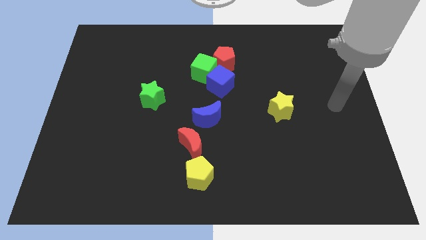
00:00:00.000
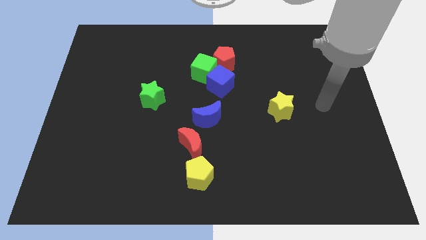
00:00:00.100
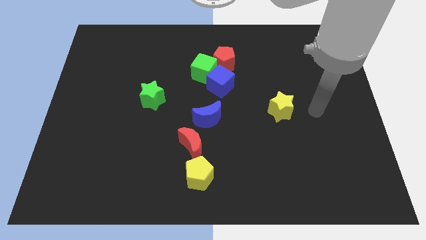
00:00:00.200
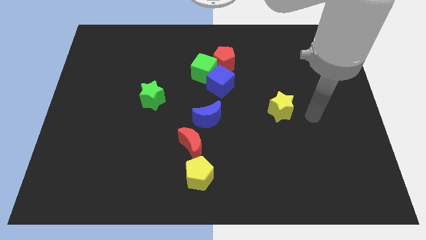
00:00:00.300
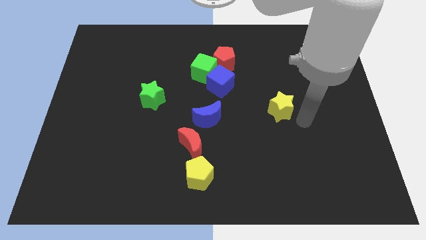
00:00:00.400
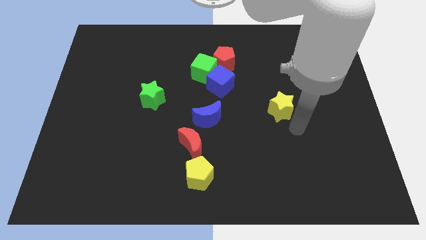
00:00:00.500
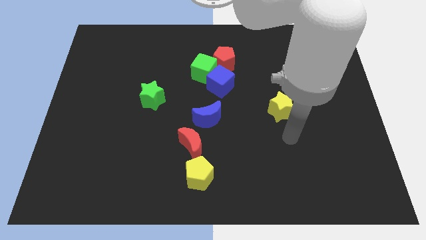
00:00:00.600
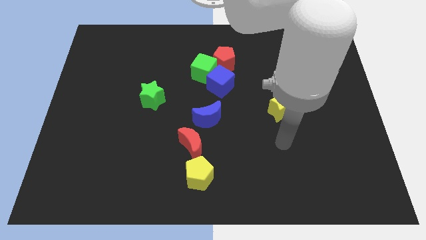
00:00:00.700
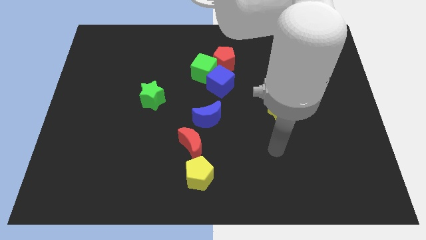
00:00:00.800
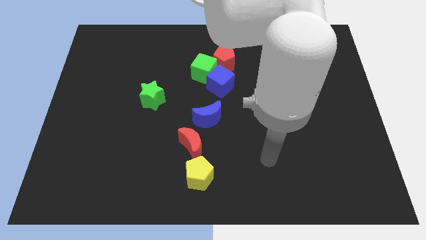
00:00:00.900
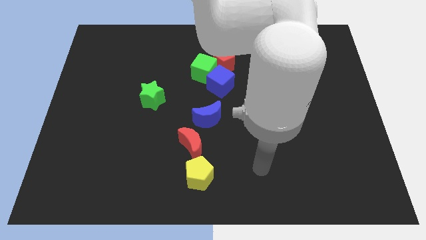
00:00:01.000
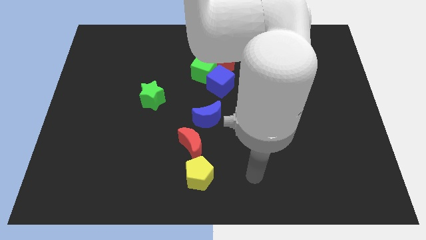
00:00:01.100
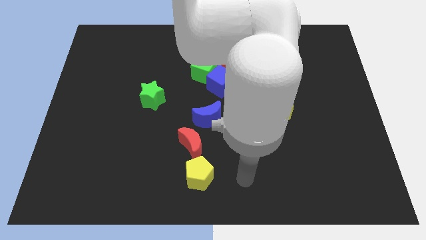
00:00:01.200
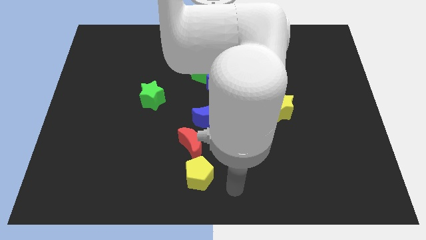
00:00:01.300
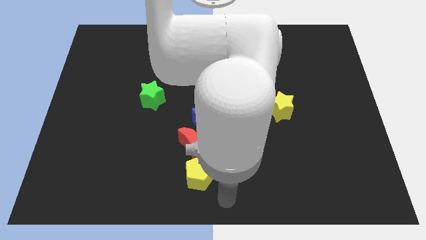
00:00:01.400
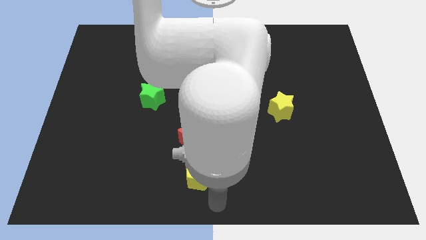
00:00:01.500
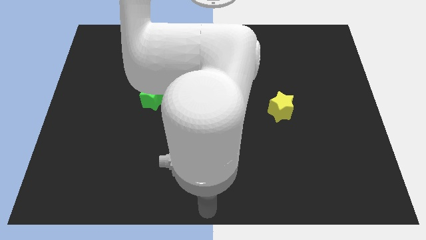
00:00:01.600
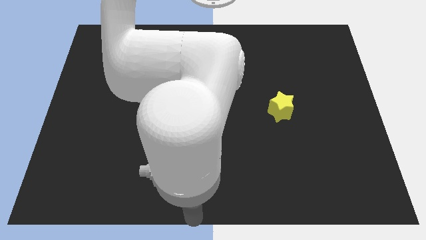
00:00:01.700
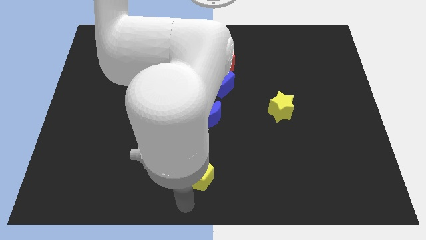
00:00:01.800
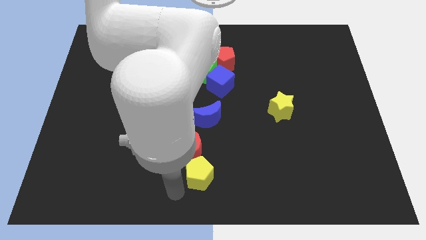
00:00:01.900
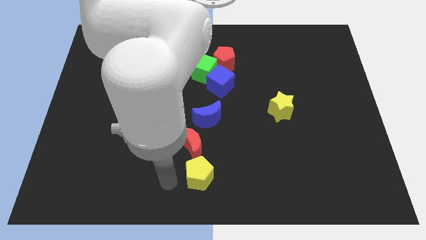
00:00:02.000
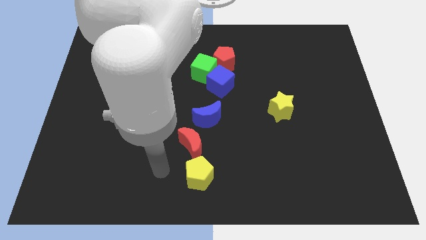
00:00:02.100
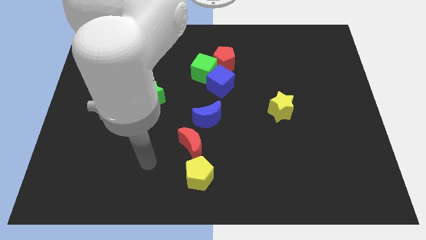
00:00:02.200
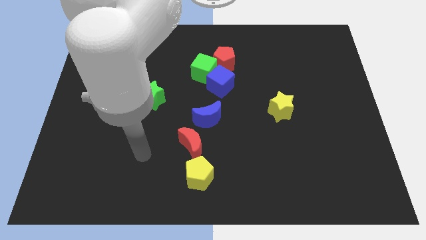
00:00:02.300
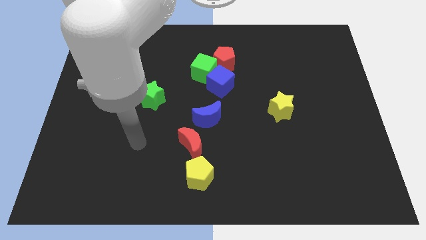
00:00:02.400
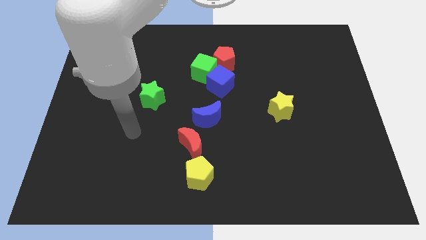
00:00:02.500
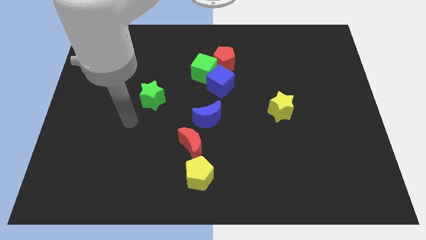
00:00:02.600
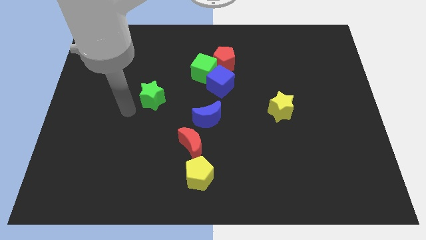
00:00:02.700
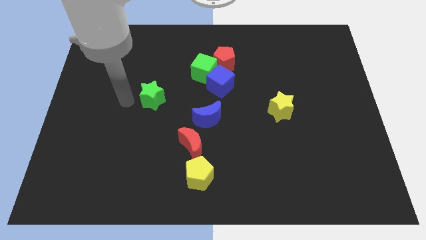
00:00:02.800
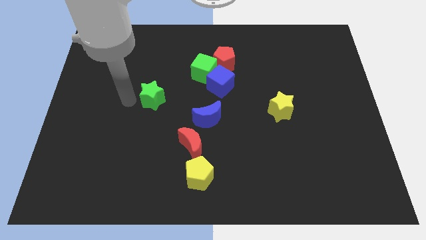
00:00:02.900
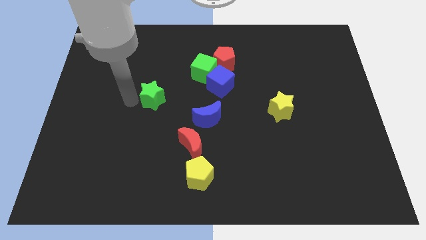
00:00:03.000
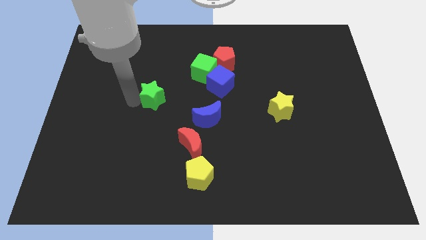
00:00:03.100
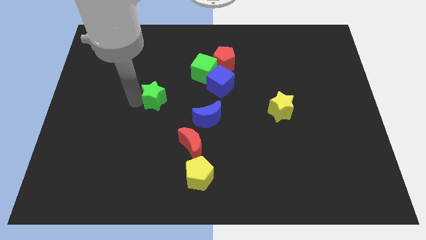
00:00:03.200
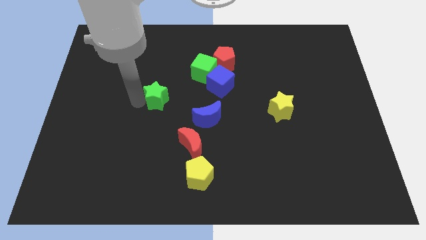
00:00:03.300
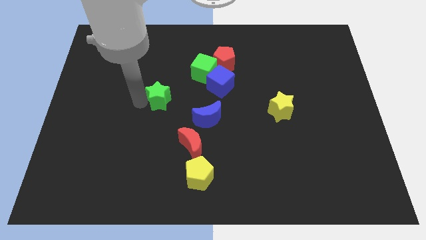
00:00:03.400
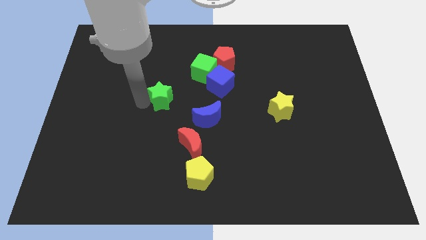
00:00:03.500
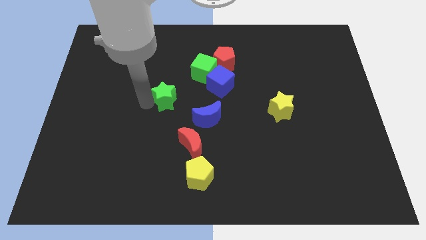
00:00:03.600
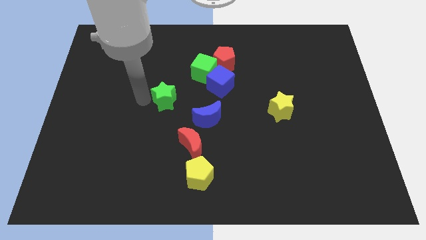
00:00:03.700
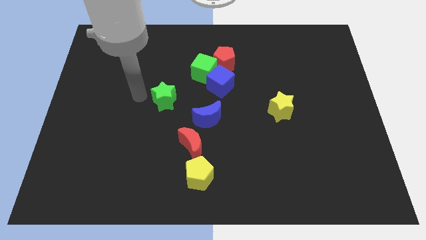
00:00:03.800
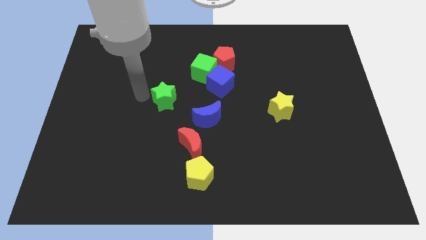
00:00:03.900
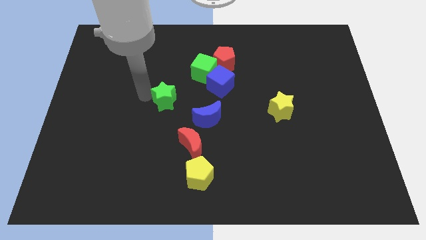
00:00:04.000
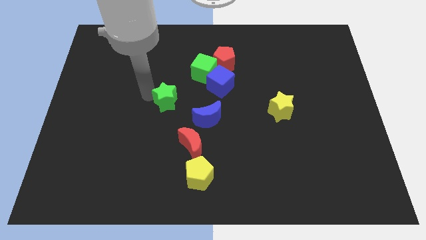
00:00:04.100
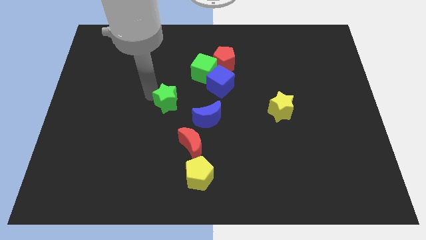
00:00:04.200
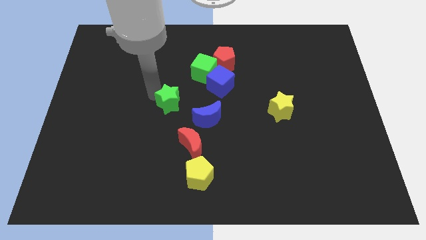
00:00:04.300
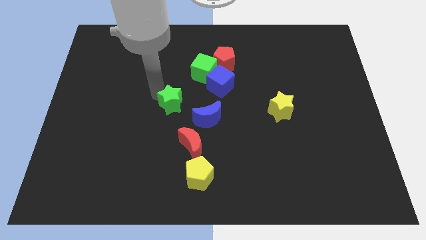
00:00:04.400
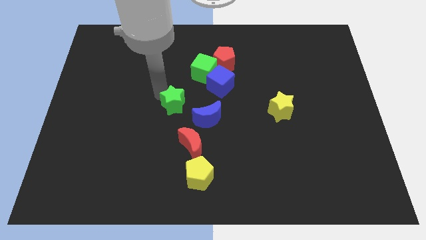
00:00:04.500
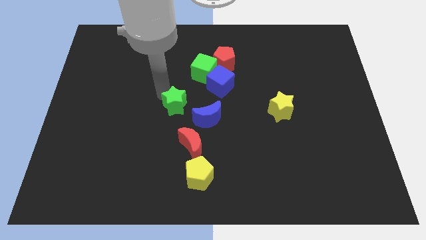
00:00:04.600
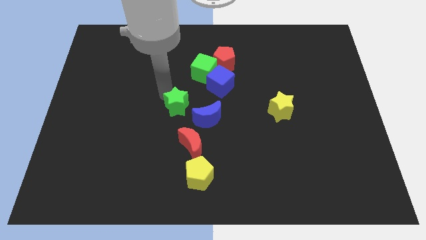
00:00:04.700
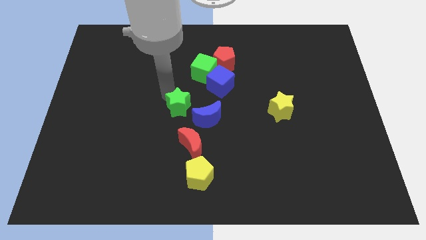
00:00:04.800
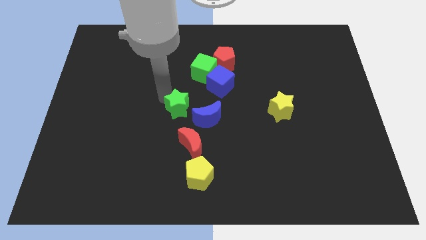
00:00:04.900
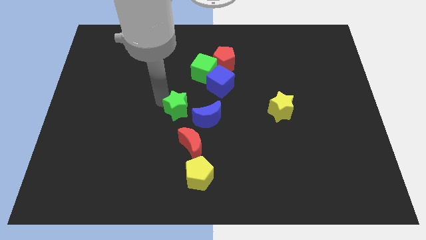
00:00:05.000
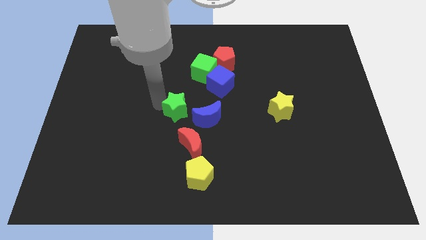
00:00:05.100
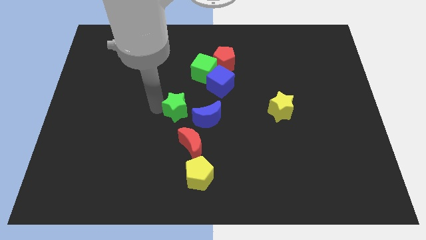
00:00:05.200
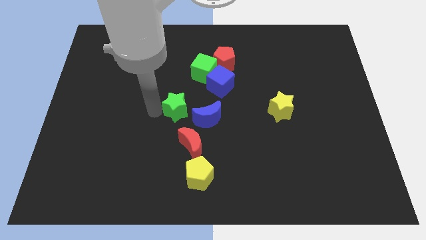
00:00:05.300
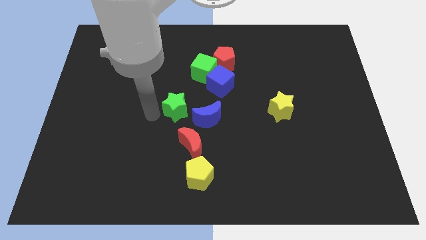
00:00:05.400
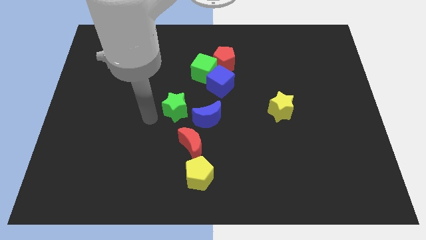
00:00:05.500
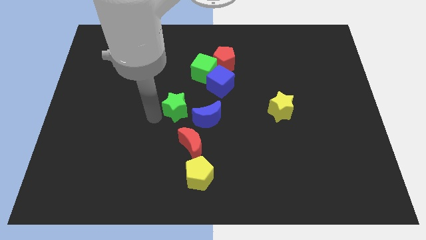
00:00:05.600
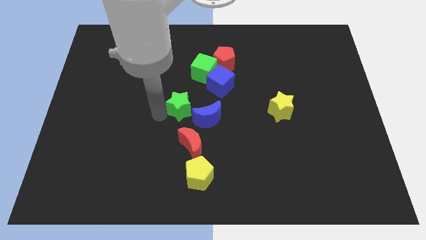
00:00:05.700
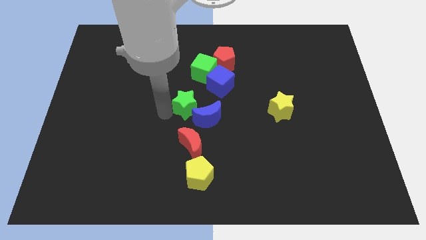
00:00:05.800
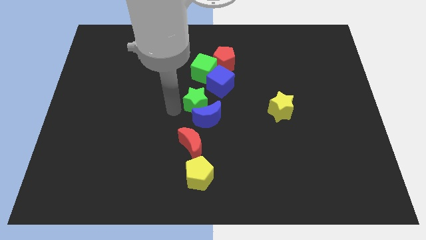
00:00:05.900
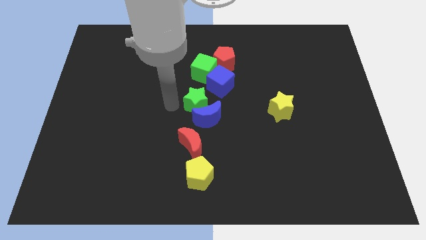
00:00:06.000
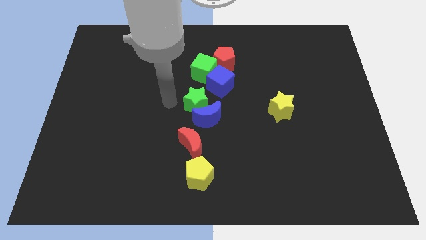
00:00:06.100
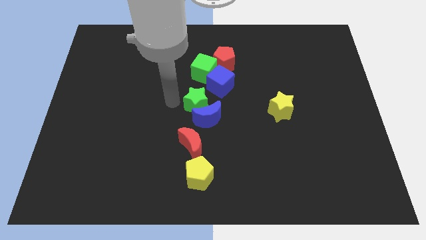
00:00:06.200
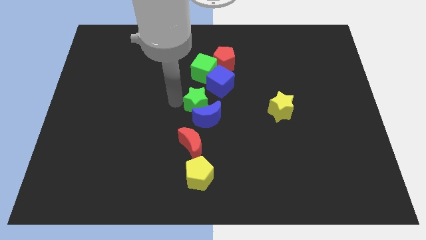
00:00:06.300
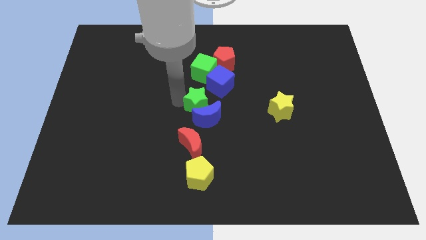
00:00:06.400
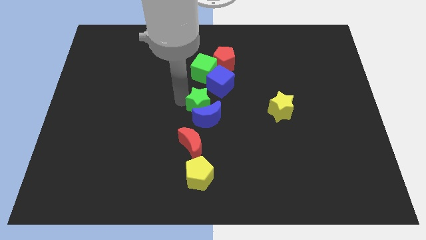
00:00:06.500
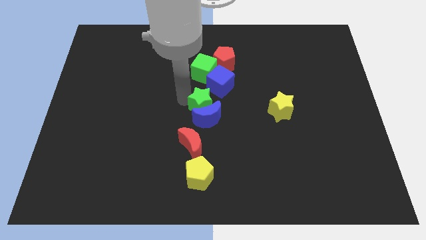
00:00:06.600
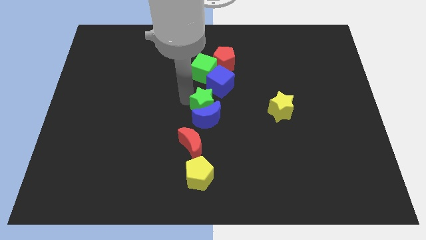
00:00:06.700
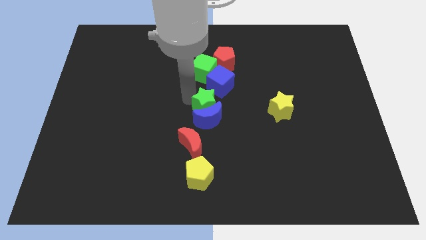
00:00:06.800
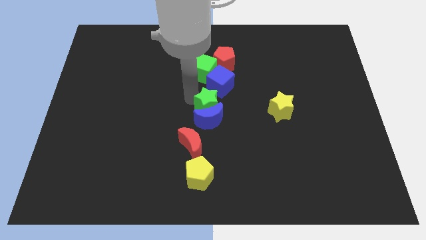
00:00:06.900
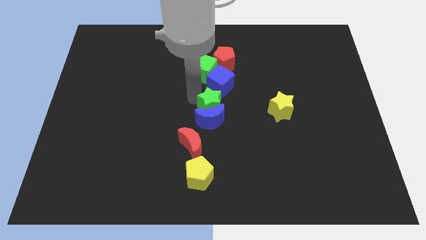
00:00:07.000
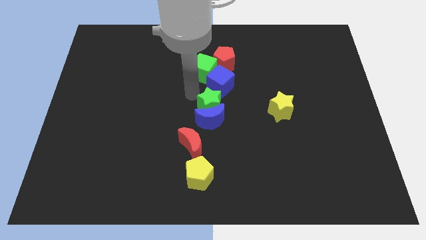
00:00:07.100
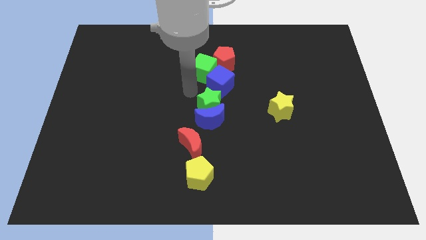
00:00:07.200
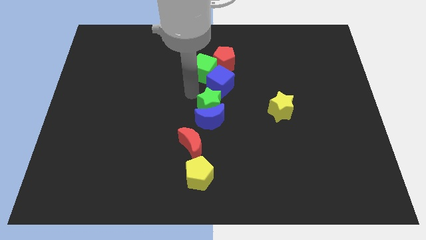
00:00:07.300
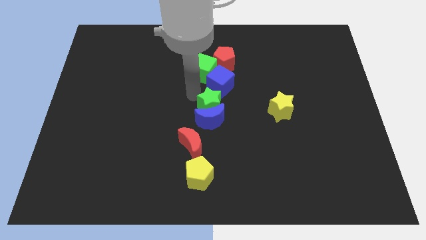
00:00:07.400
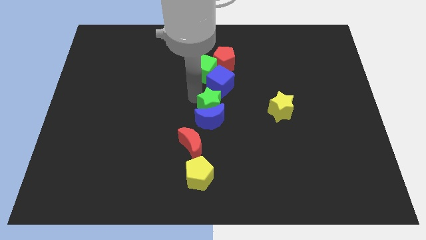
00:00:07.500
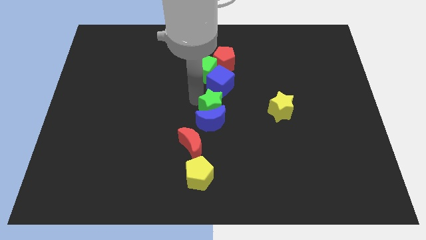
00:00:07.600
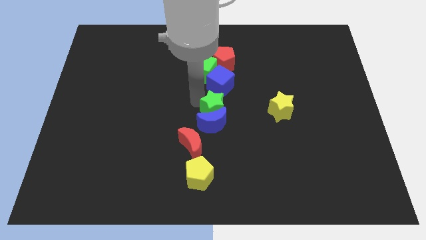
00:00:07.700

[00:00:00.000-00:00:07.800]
move the green star to the top right side of the red moon
